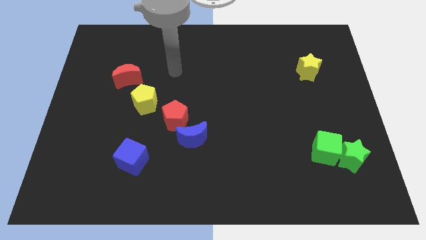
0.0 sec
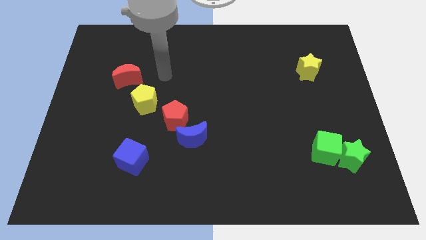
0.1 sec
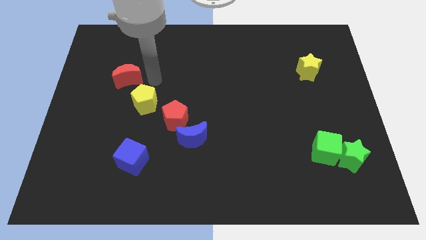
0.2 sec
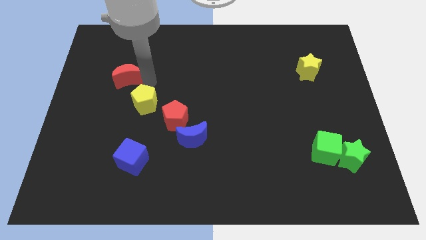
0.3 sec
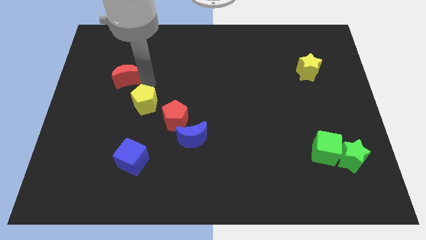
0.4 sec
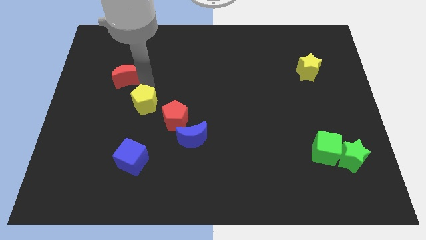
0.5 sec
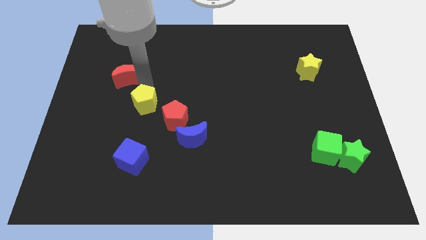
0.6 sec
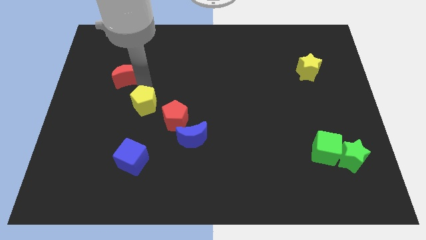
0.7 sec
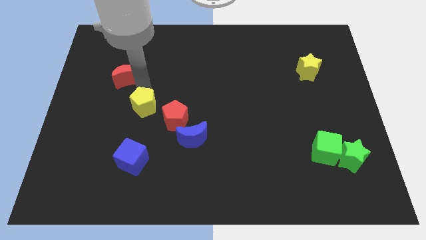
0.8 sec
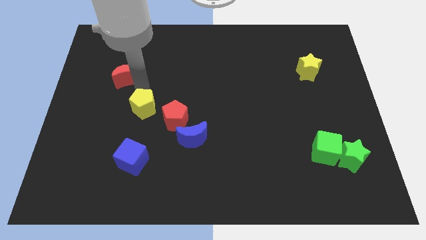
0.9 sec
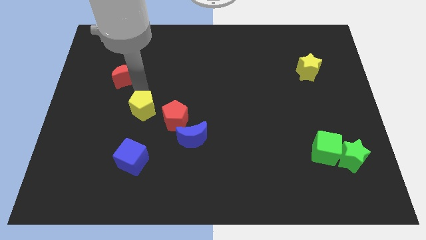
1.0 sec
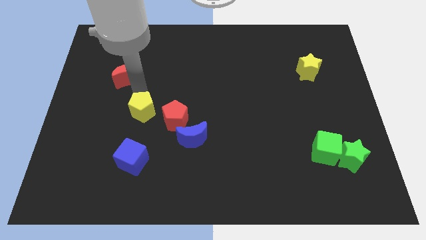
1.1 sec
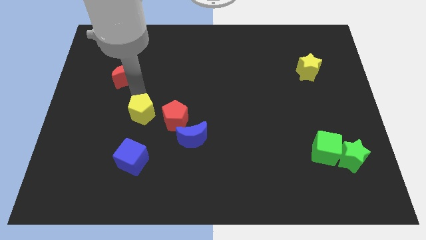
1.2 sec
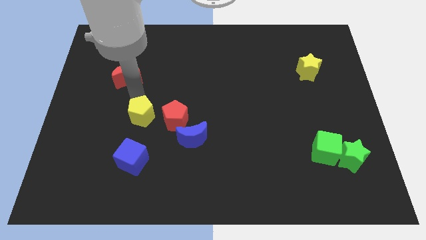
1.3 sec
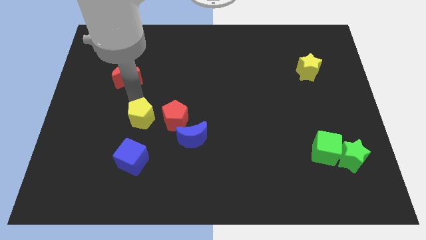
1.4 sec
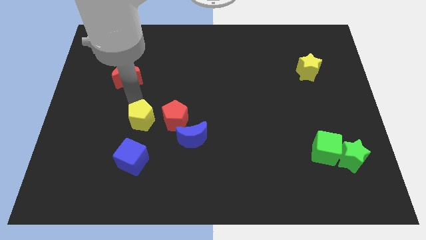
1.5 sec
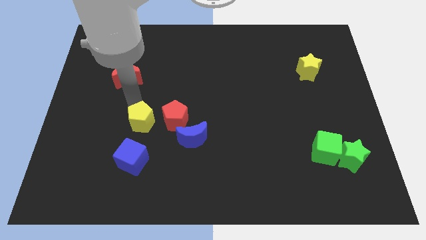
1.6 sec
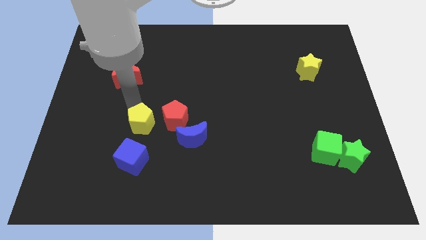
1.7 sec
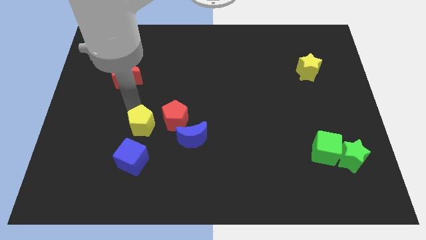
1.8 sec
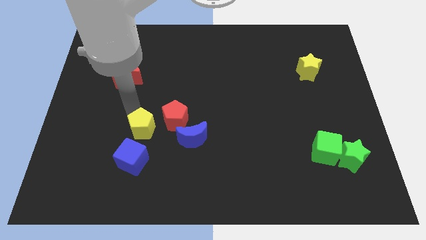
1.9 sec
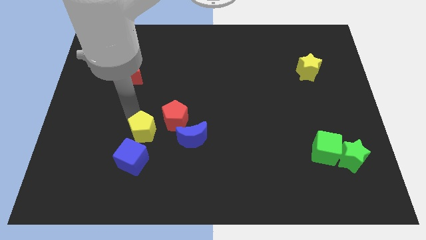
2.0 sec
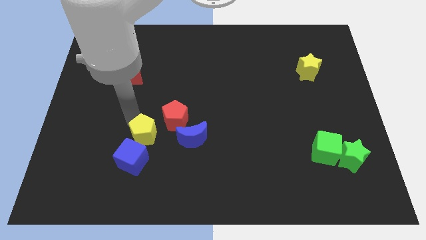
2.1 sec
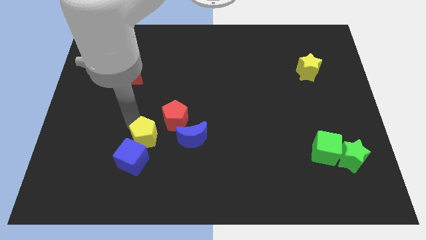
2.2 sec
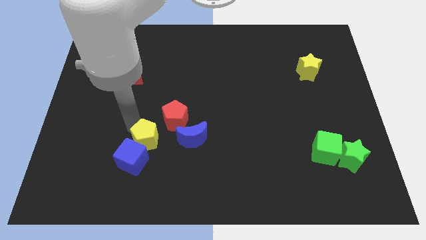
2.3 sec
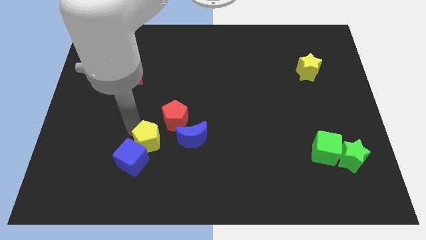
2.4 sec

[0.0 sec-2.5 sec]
push the yellow pentagon a bit down and right

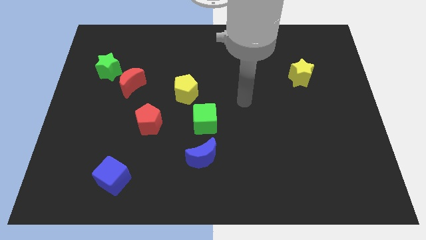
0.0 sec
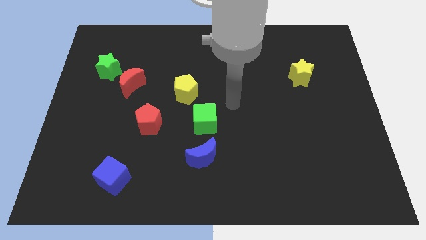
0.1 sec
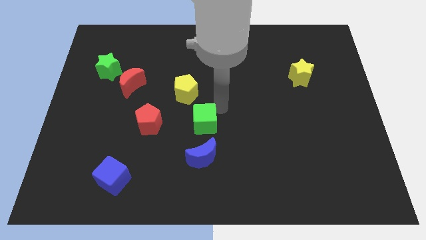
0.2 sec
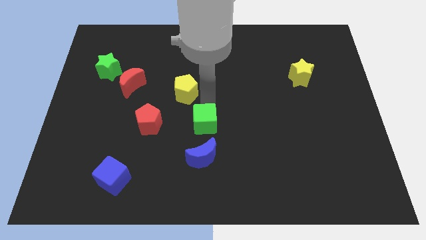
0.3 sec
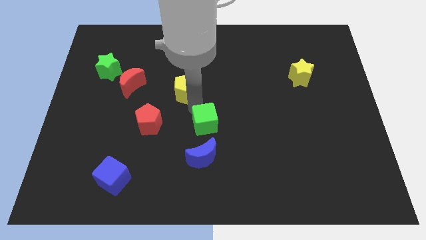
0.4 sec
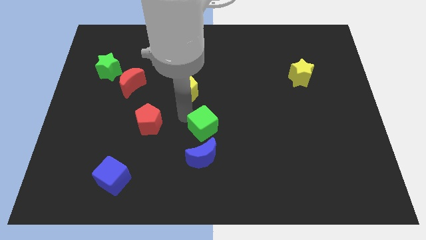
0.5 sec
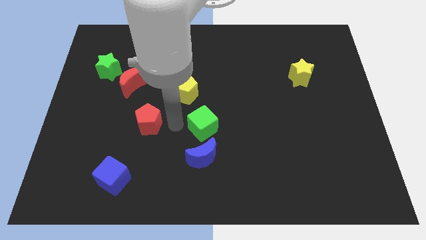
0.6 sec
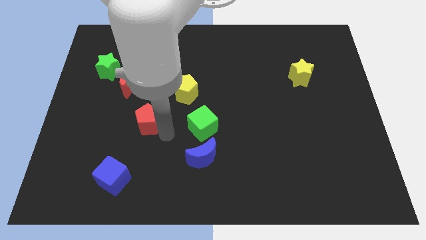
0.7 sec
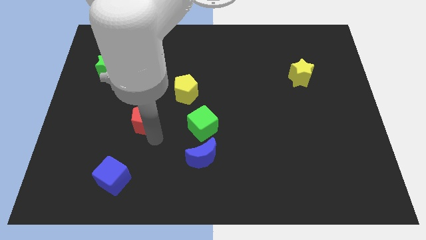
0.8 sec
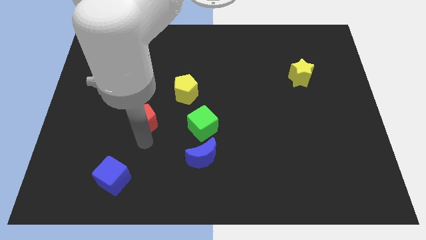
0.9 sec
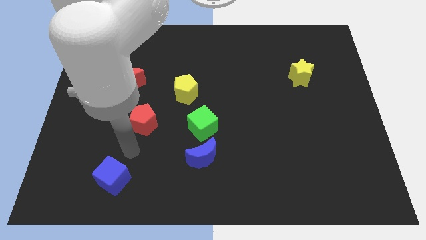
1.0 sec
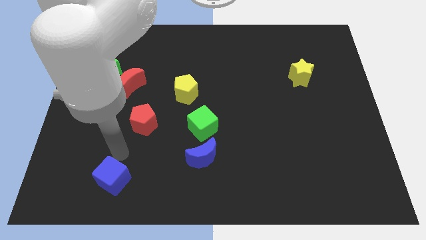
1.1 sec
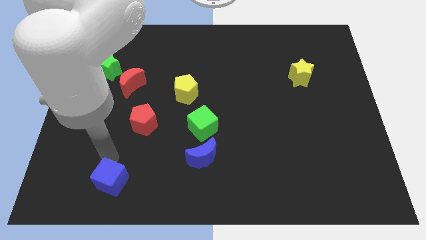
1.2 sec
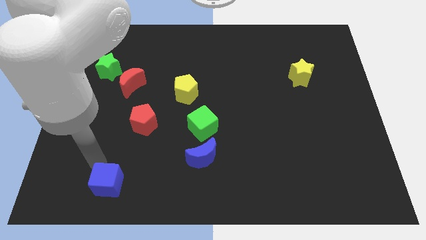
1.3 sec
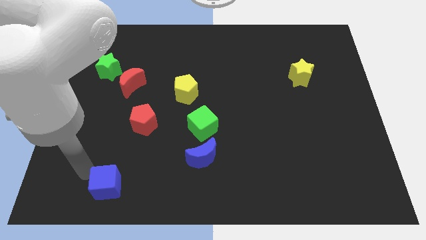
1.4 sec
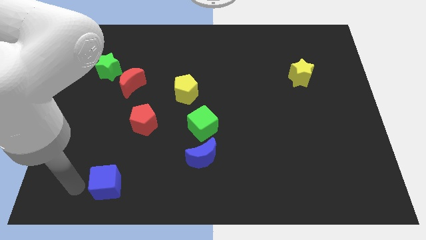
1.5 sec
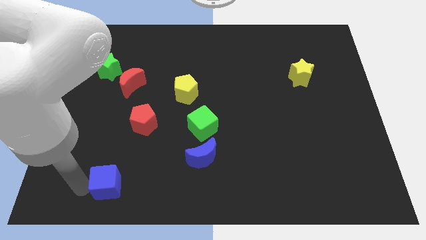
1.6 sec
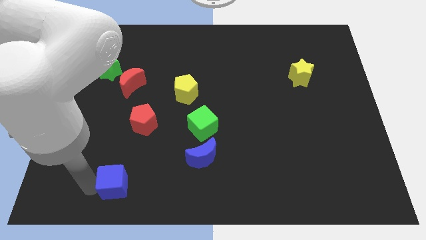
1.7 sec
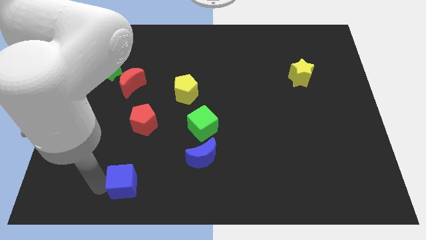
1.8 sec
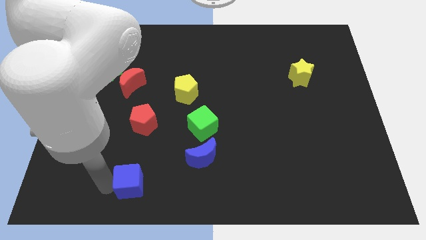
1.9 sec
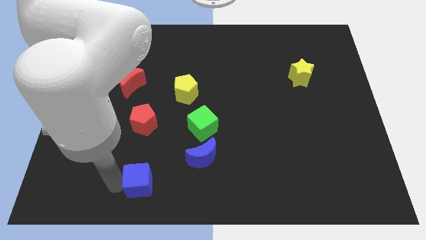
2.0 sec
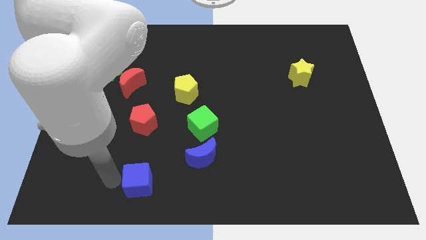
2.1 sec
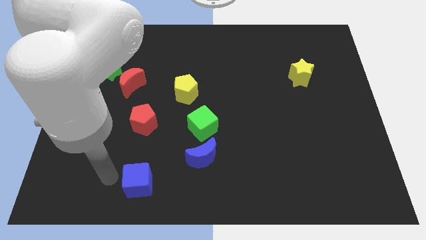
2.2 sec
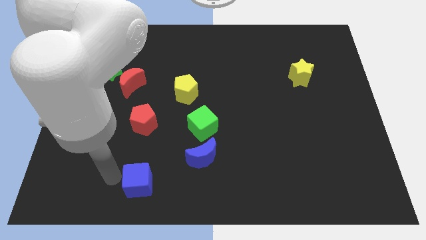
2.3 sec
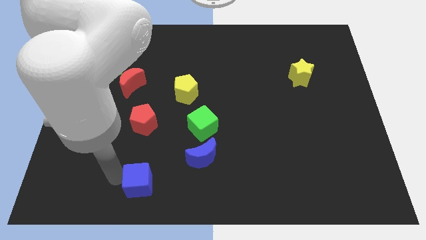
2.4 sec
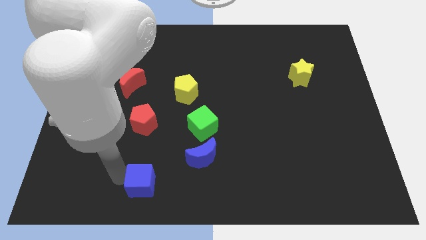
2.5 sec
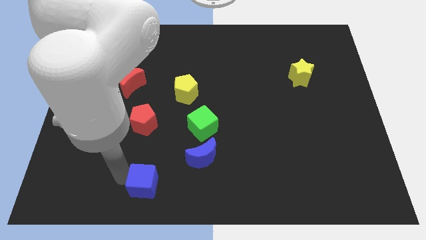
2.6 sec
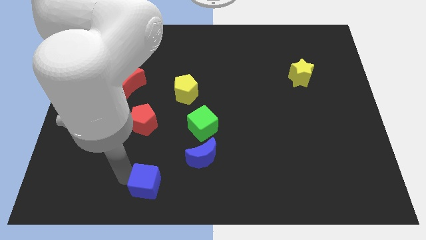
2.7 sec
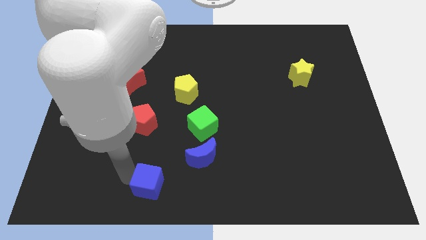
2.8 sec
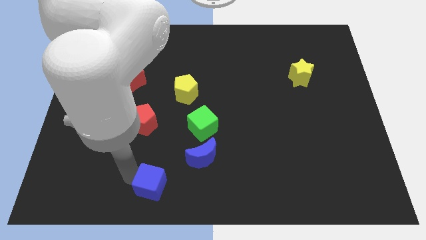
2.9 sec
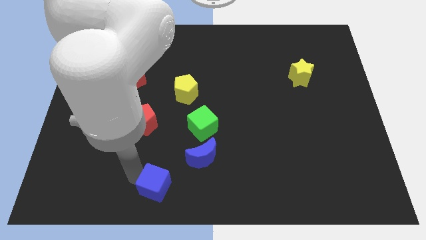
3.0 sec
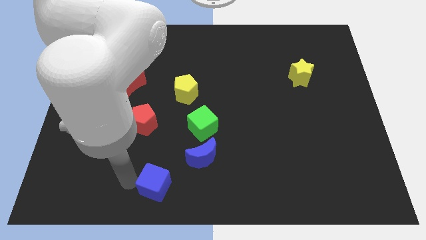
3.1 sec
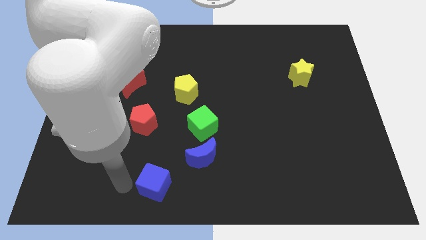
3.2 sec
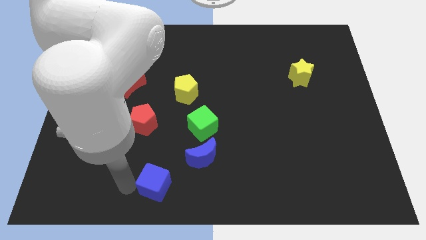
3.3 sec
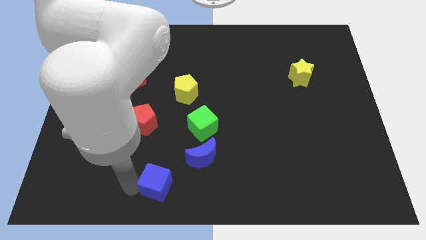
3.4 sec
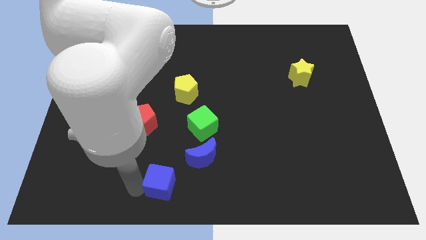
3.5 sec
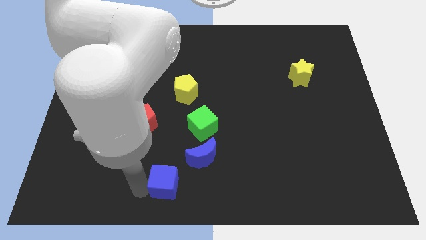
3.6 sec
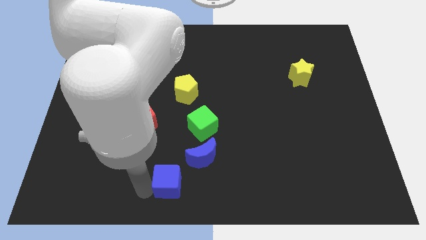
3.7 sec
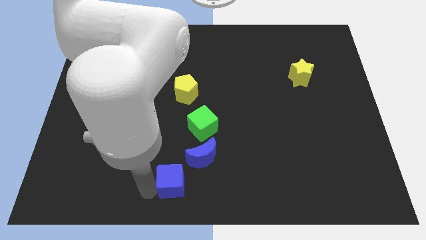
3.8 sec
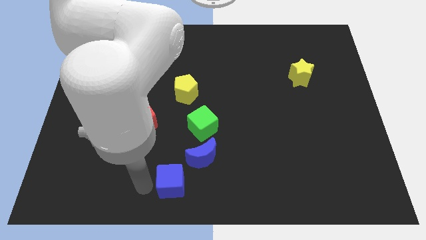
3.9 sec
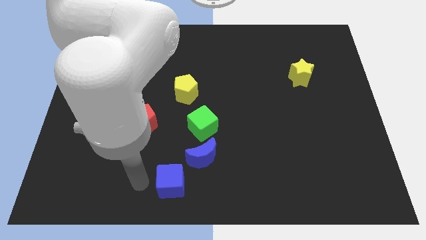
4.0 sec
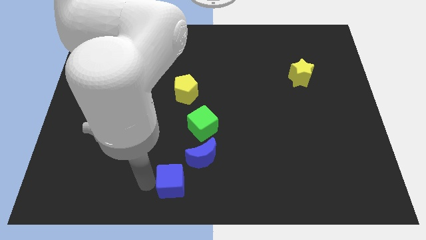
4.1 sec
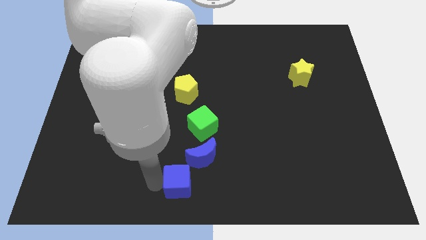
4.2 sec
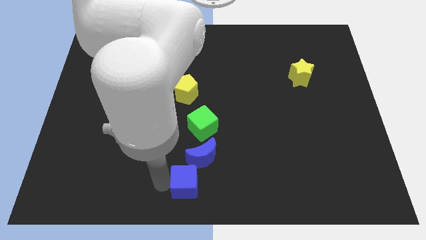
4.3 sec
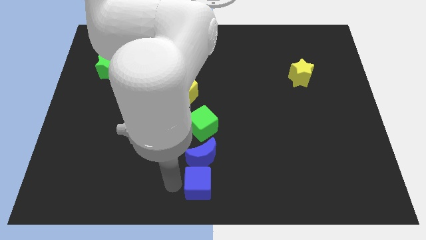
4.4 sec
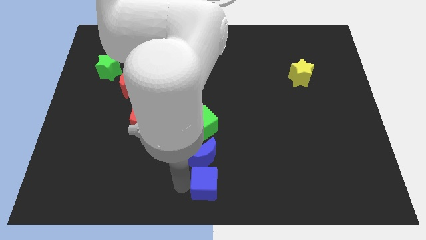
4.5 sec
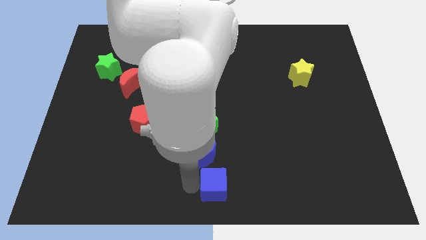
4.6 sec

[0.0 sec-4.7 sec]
slide the blue cube to the right

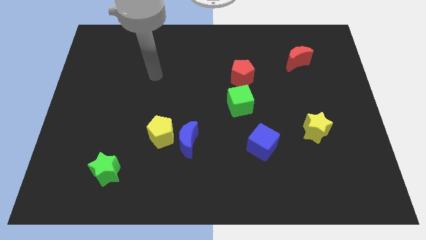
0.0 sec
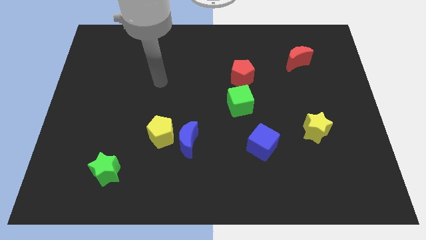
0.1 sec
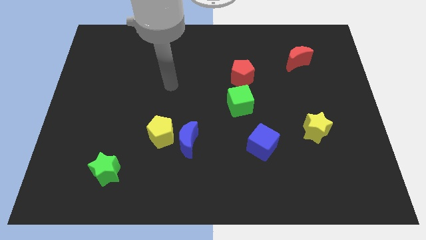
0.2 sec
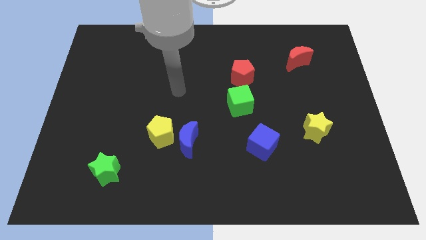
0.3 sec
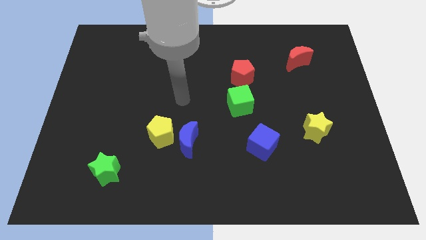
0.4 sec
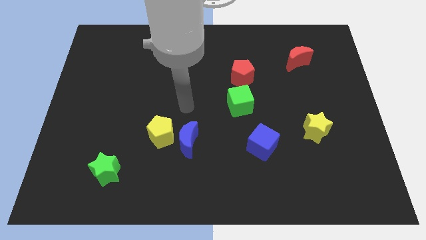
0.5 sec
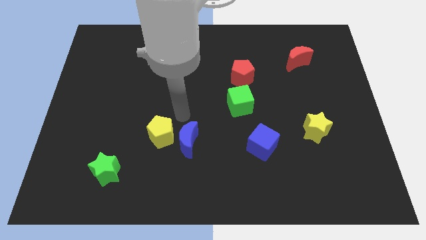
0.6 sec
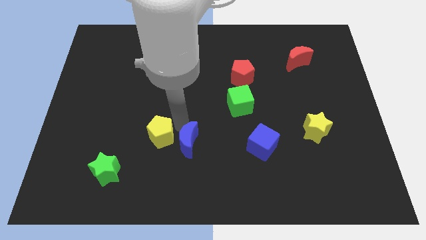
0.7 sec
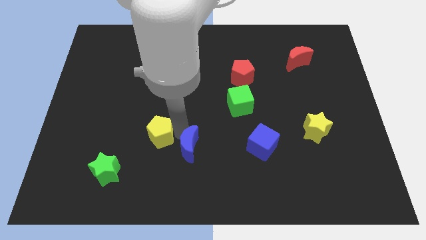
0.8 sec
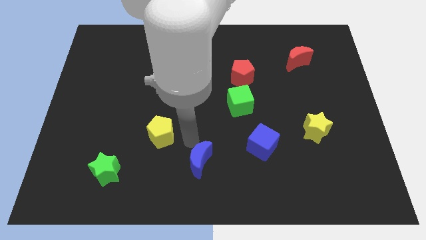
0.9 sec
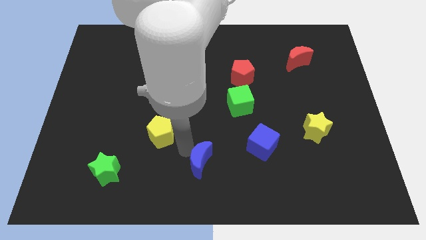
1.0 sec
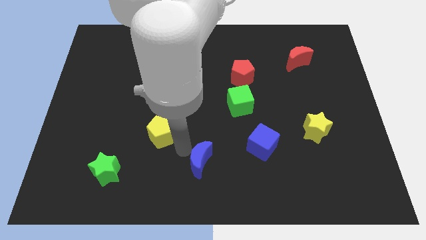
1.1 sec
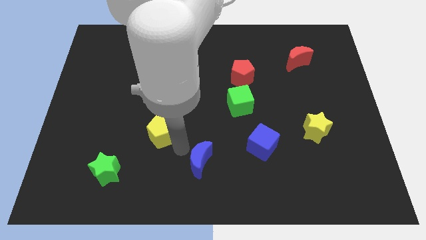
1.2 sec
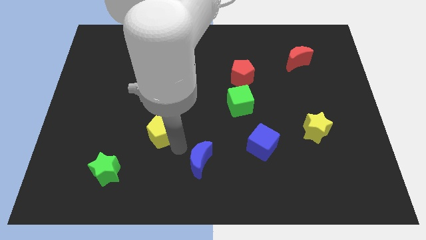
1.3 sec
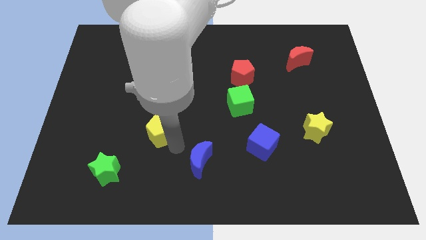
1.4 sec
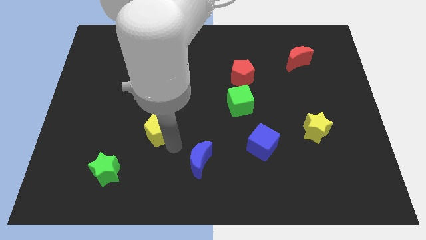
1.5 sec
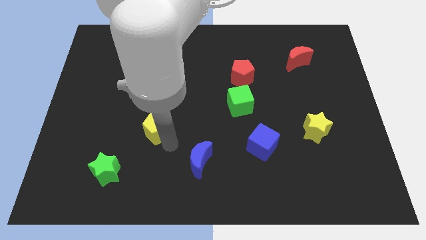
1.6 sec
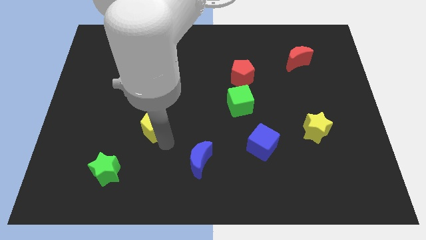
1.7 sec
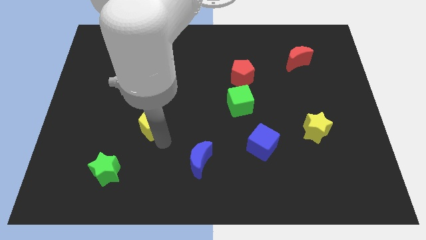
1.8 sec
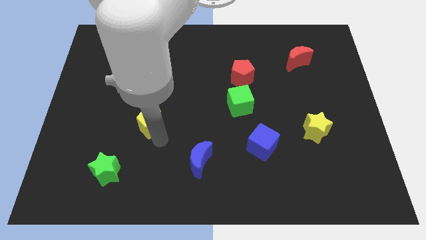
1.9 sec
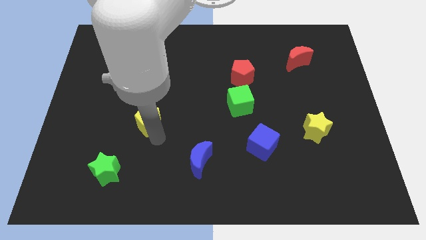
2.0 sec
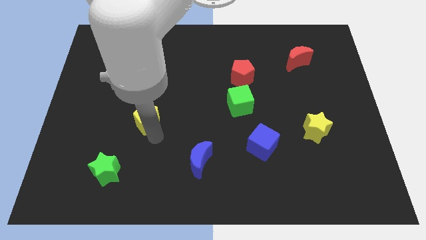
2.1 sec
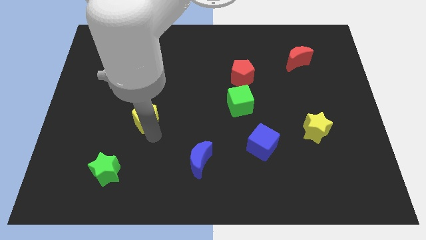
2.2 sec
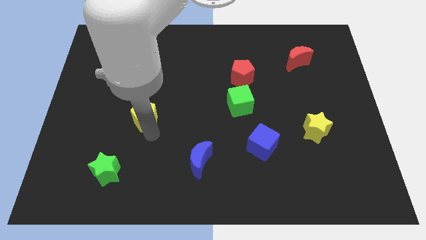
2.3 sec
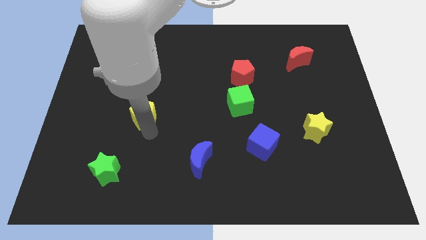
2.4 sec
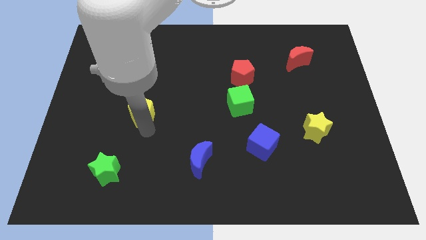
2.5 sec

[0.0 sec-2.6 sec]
slightly push the yellow pentagon upwards and to the left diagonally
